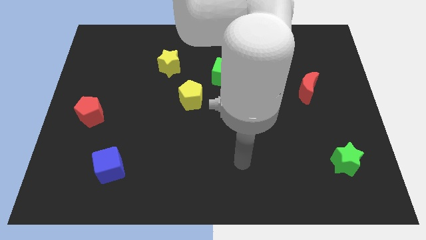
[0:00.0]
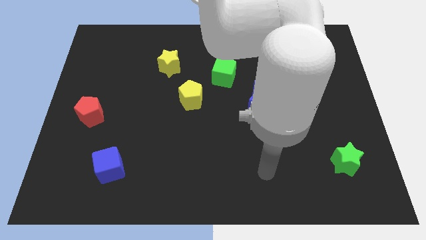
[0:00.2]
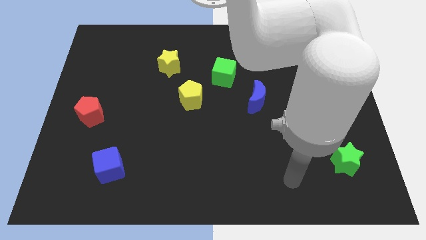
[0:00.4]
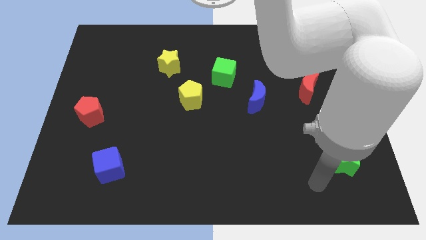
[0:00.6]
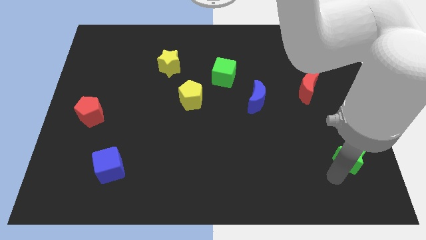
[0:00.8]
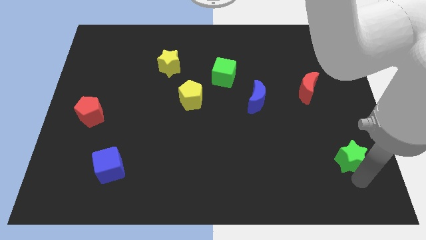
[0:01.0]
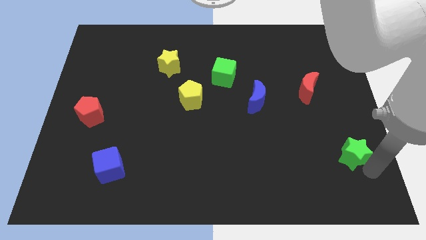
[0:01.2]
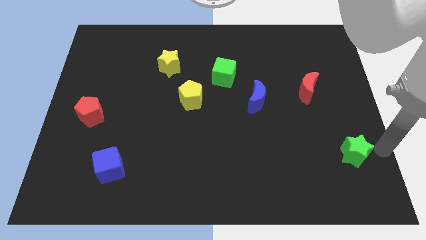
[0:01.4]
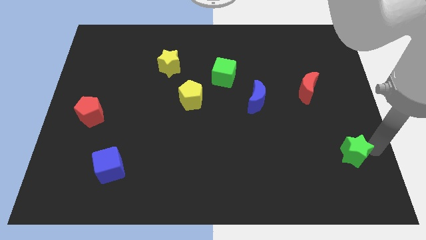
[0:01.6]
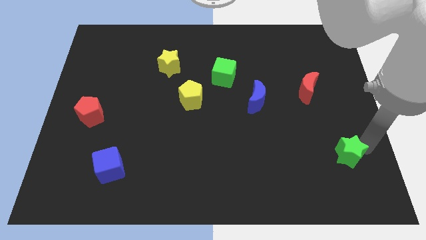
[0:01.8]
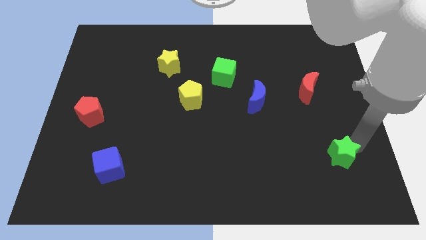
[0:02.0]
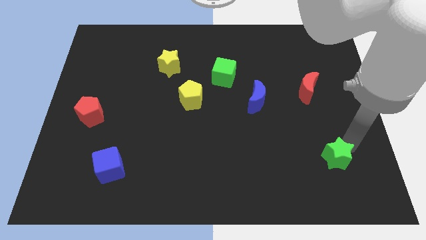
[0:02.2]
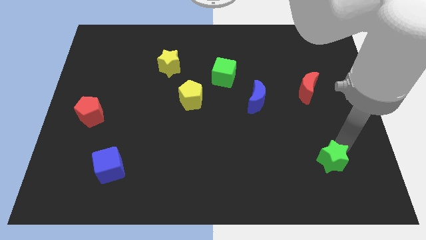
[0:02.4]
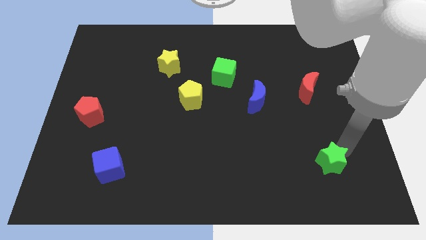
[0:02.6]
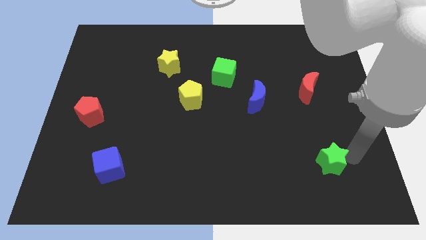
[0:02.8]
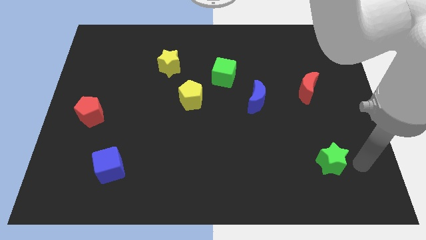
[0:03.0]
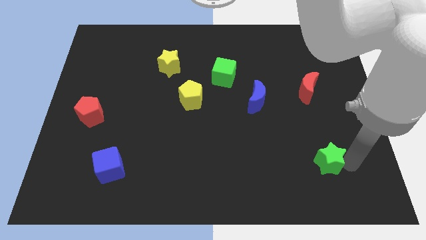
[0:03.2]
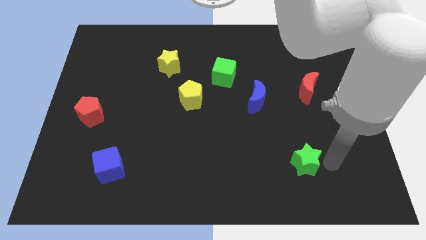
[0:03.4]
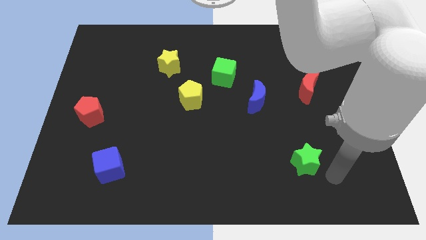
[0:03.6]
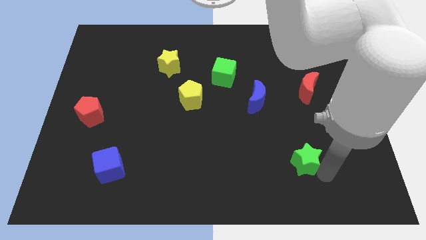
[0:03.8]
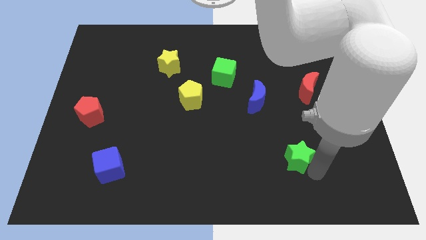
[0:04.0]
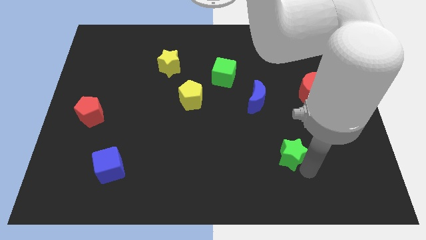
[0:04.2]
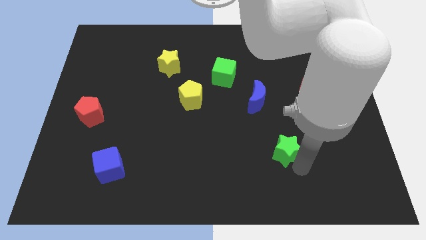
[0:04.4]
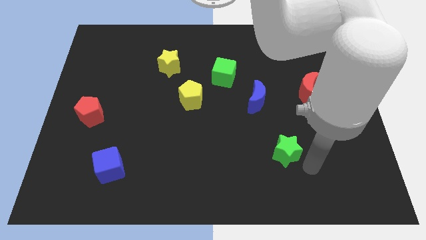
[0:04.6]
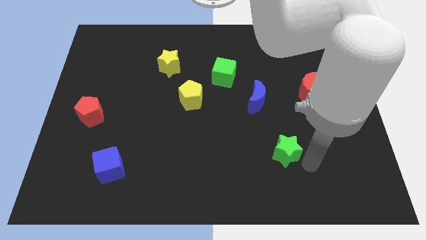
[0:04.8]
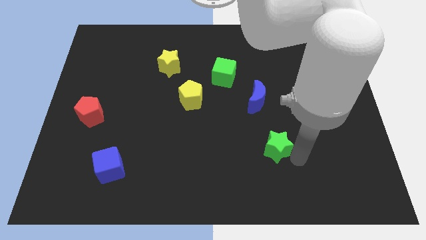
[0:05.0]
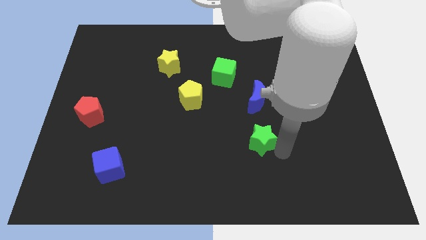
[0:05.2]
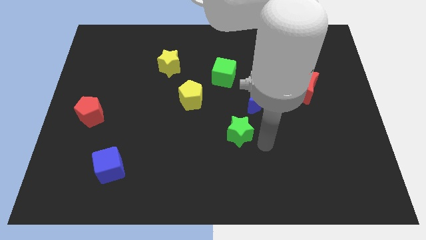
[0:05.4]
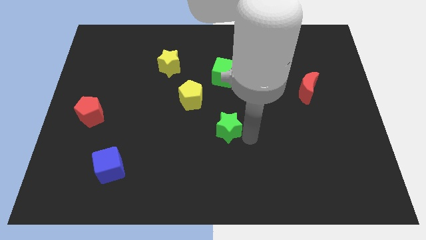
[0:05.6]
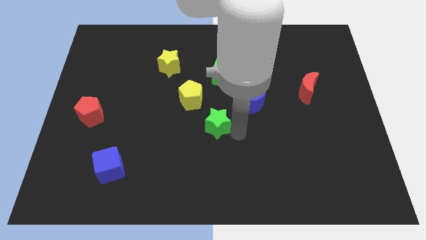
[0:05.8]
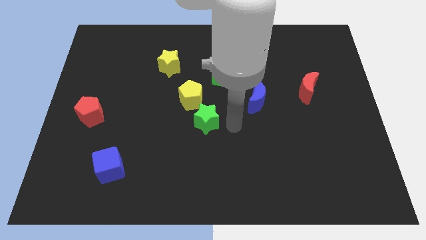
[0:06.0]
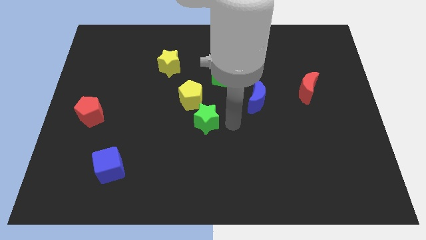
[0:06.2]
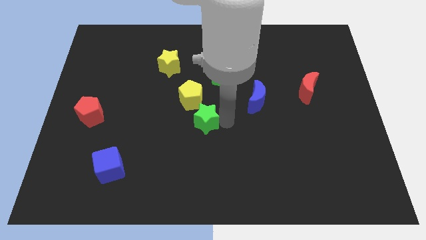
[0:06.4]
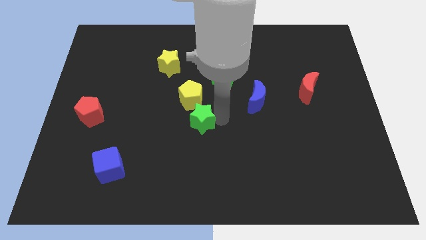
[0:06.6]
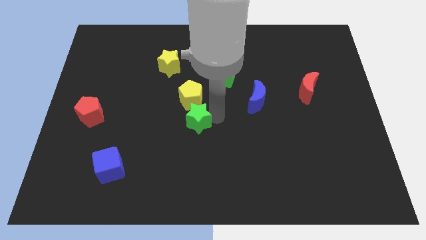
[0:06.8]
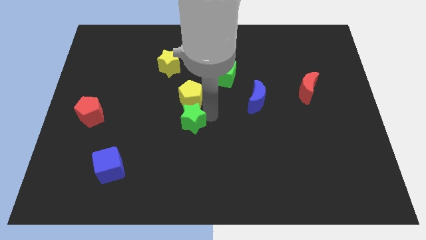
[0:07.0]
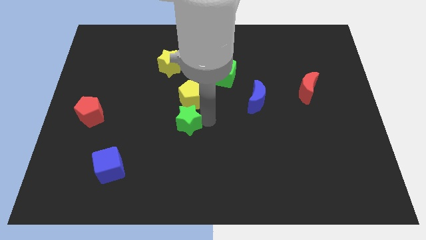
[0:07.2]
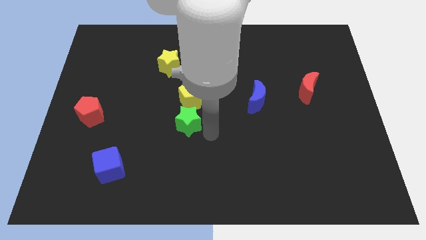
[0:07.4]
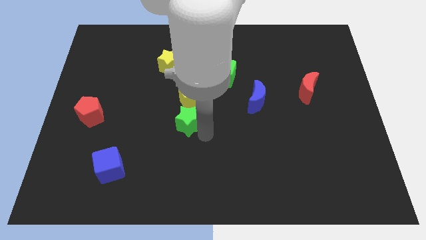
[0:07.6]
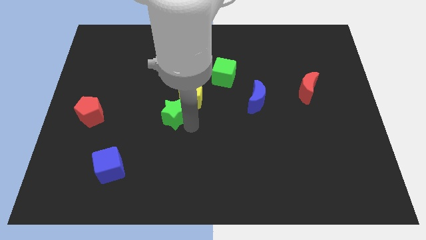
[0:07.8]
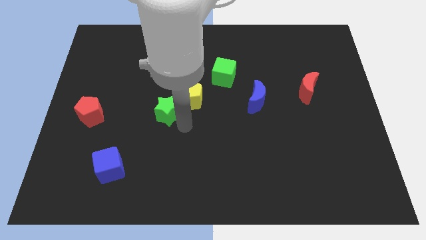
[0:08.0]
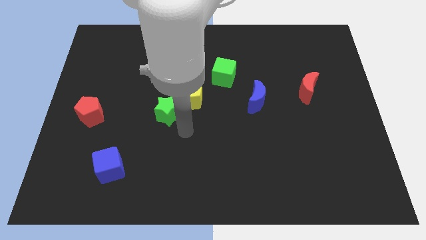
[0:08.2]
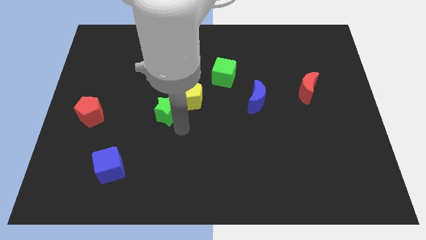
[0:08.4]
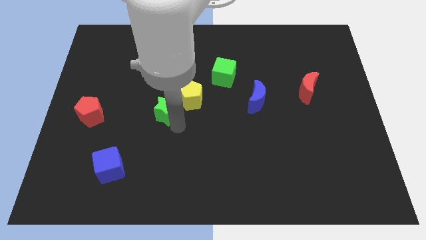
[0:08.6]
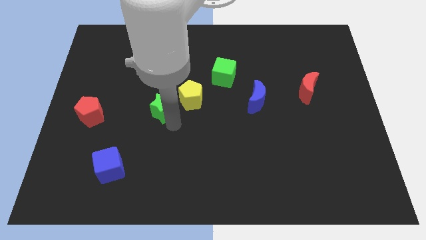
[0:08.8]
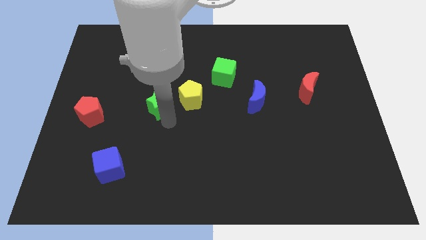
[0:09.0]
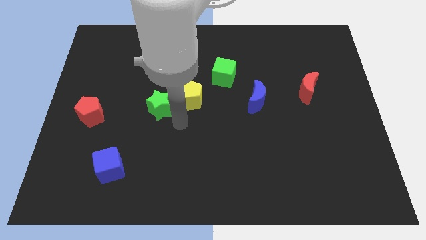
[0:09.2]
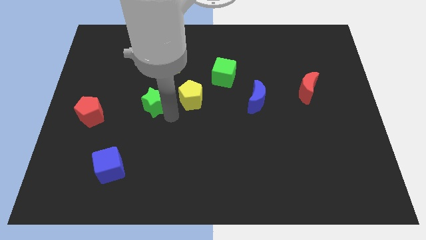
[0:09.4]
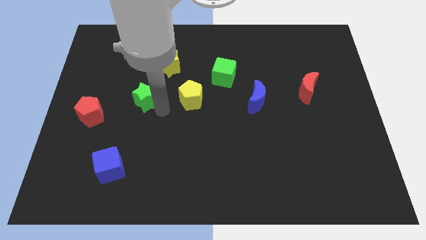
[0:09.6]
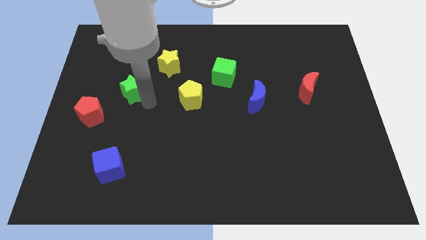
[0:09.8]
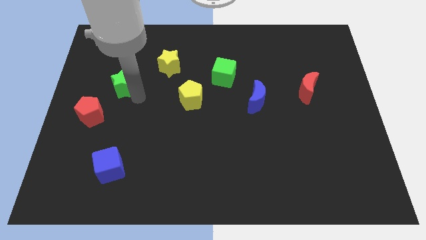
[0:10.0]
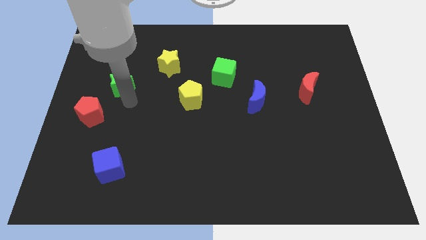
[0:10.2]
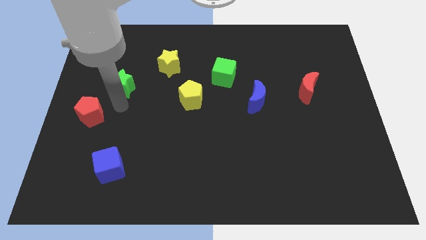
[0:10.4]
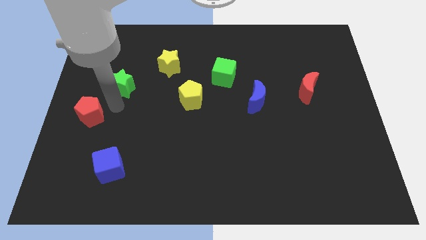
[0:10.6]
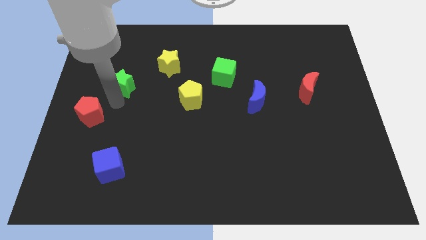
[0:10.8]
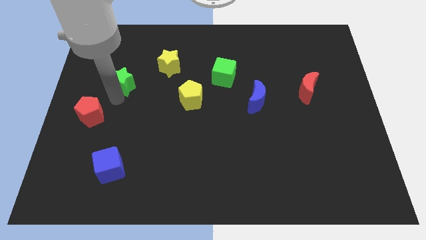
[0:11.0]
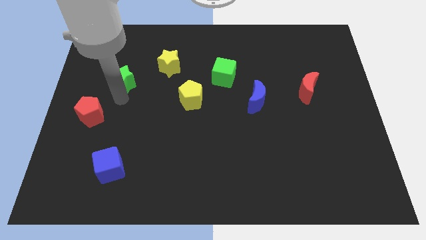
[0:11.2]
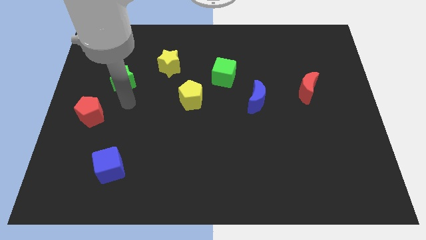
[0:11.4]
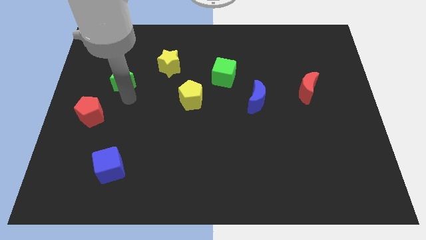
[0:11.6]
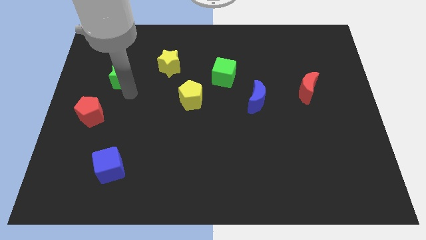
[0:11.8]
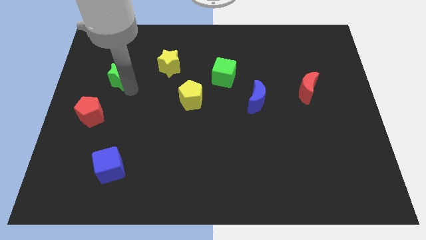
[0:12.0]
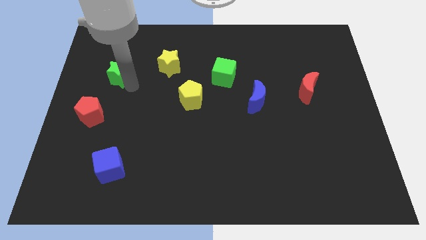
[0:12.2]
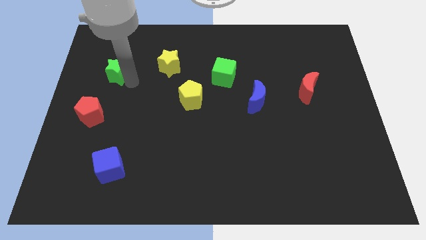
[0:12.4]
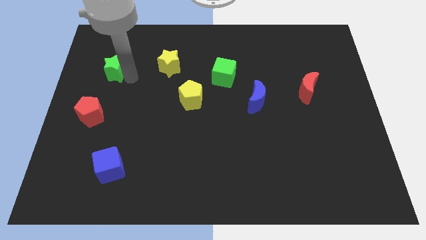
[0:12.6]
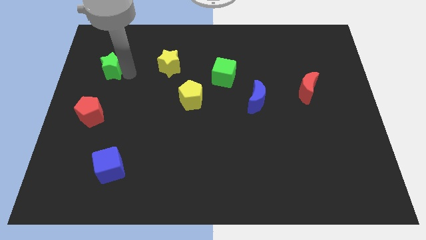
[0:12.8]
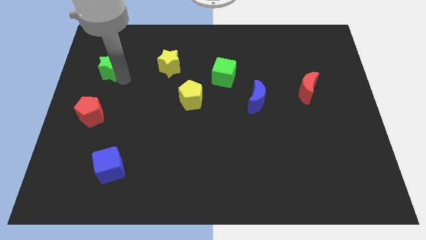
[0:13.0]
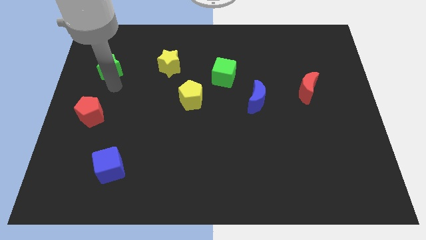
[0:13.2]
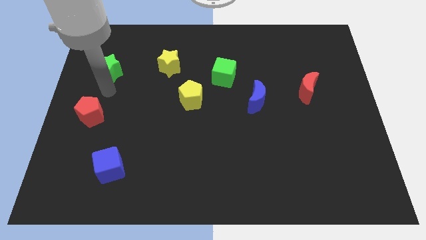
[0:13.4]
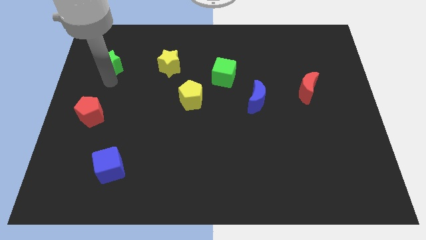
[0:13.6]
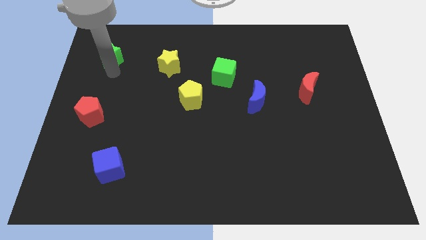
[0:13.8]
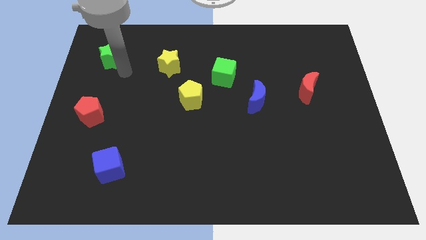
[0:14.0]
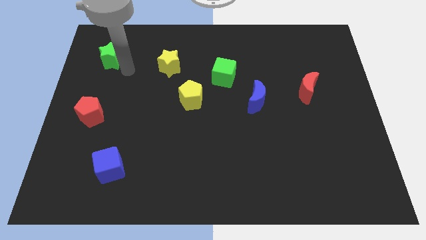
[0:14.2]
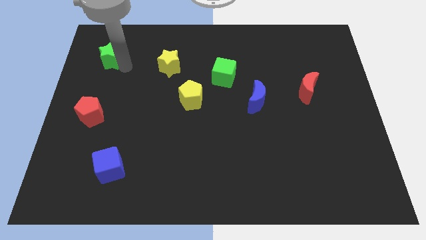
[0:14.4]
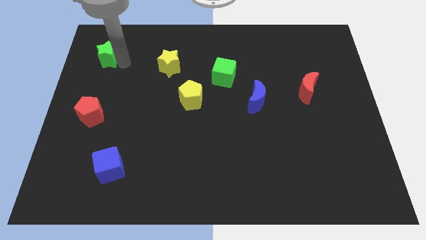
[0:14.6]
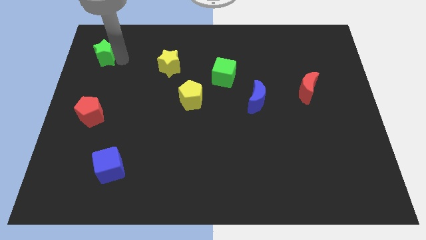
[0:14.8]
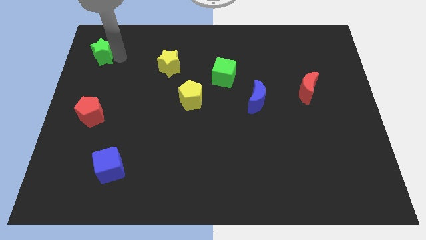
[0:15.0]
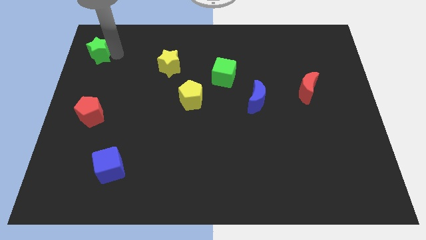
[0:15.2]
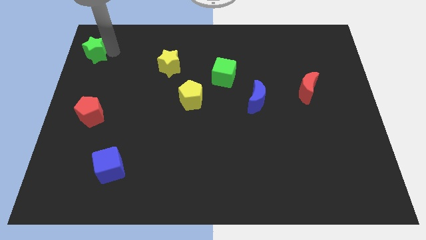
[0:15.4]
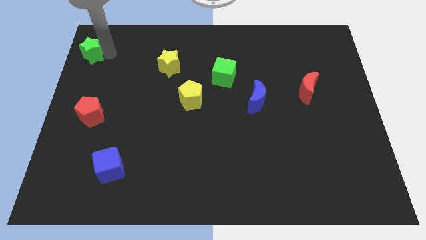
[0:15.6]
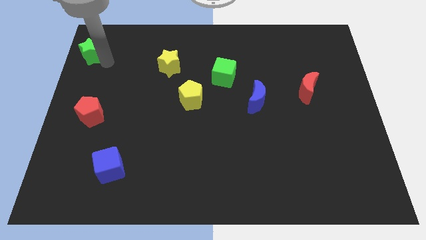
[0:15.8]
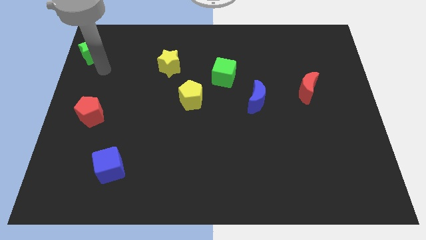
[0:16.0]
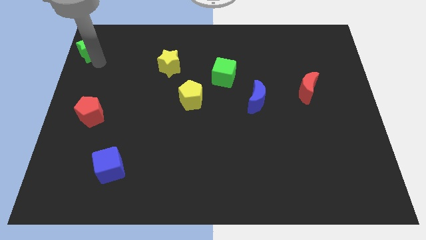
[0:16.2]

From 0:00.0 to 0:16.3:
move the green star to the top left of the board
